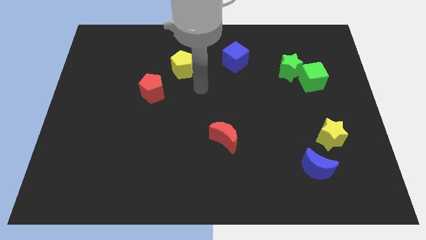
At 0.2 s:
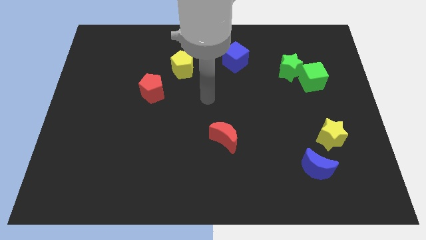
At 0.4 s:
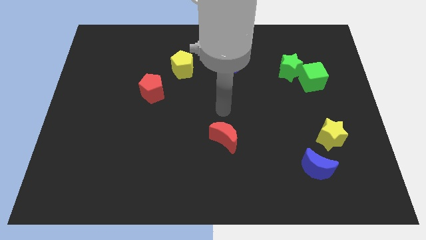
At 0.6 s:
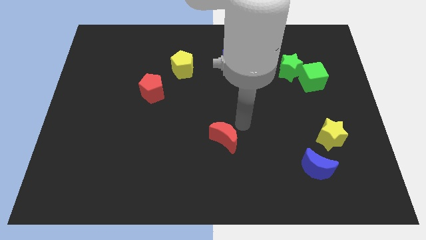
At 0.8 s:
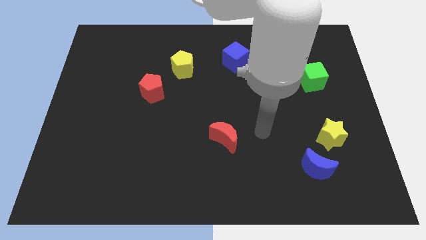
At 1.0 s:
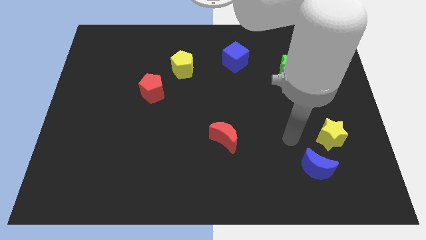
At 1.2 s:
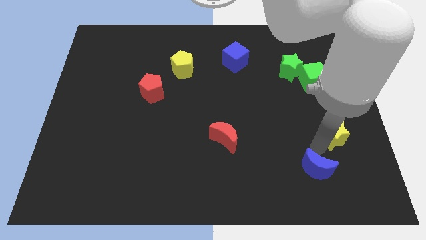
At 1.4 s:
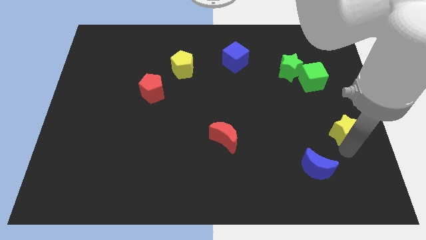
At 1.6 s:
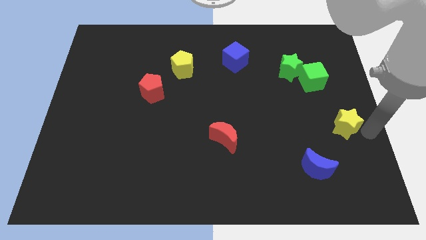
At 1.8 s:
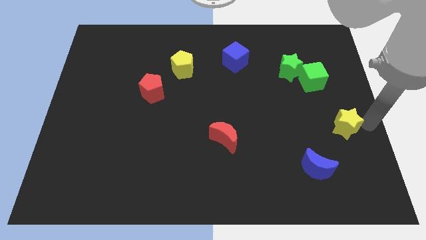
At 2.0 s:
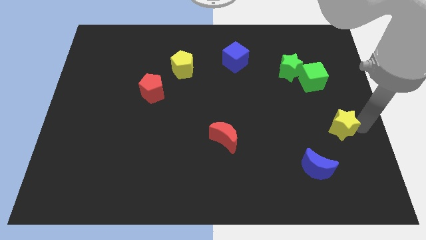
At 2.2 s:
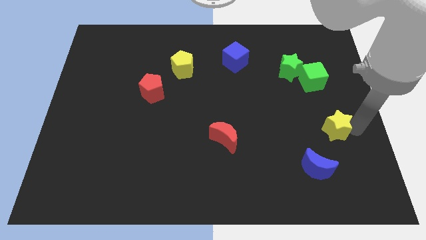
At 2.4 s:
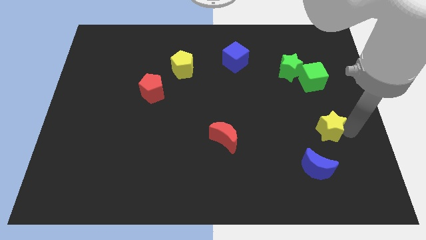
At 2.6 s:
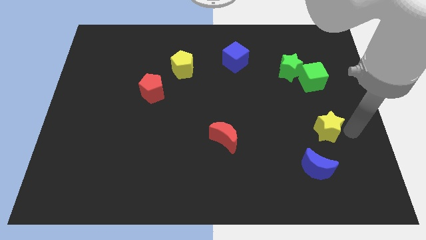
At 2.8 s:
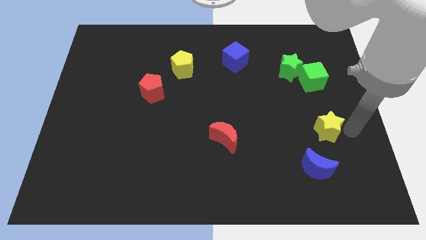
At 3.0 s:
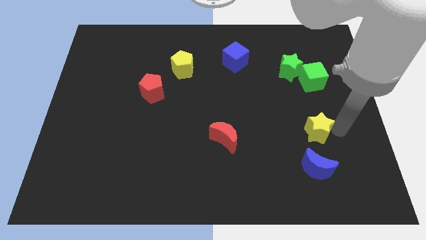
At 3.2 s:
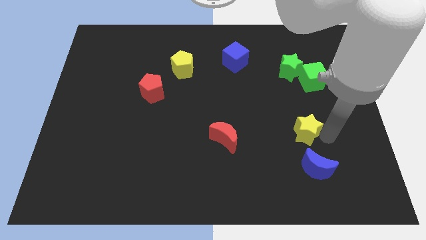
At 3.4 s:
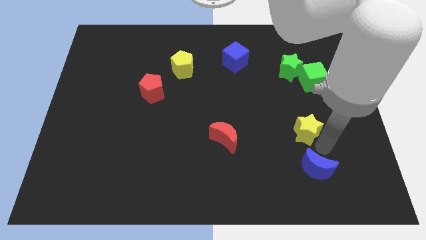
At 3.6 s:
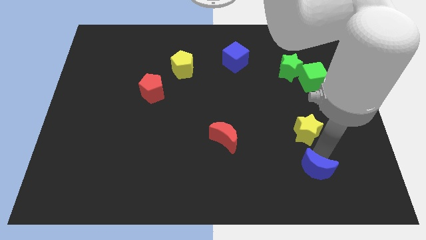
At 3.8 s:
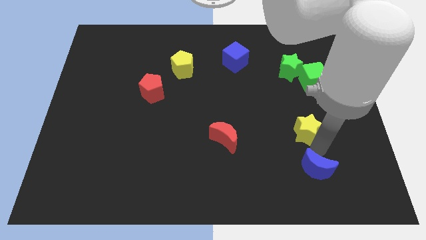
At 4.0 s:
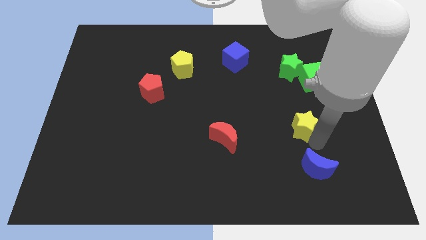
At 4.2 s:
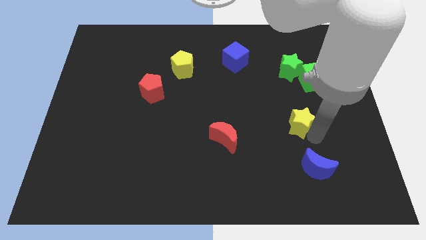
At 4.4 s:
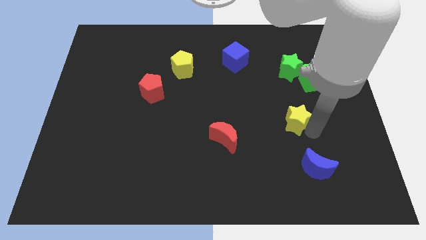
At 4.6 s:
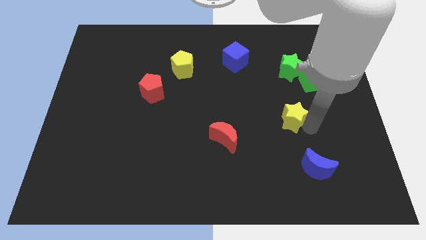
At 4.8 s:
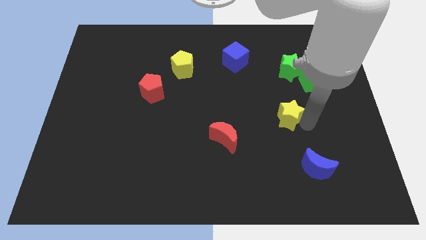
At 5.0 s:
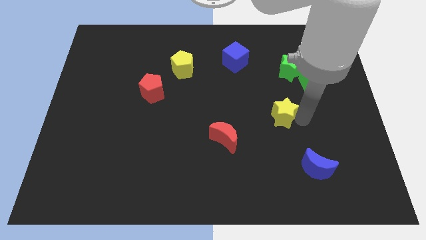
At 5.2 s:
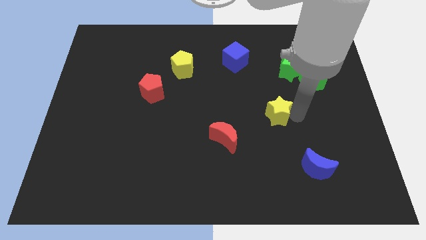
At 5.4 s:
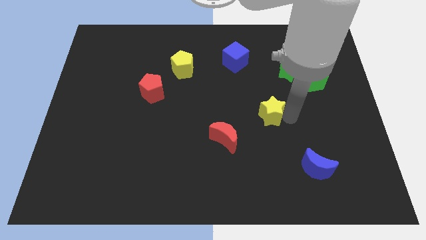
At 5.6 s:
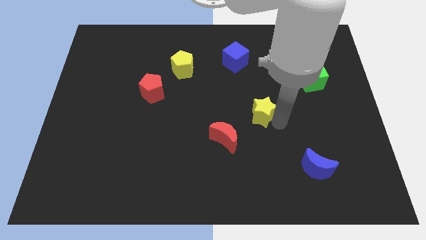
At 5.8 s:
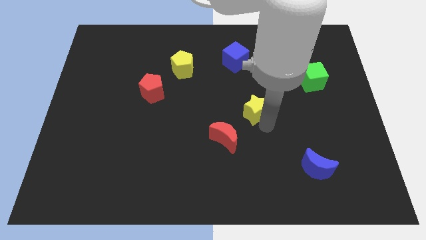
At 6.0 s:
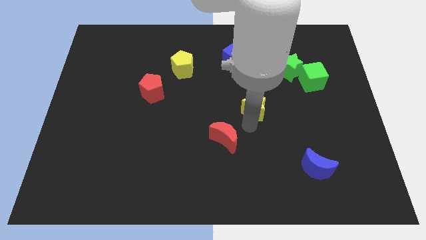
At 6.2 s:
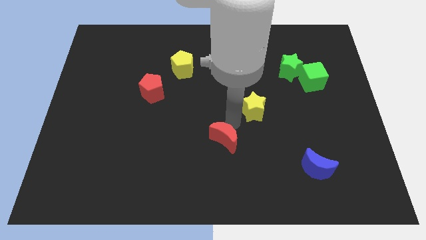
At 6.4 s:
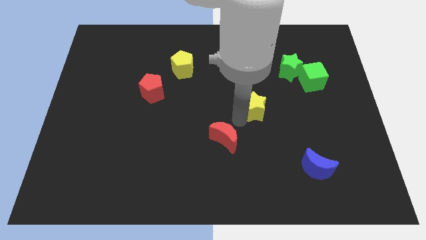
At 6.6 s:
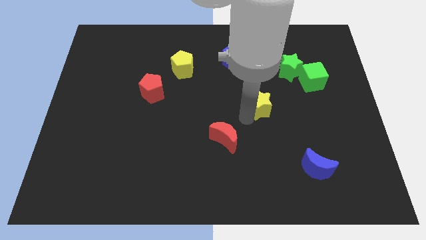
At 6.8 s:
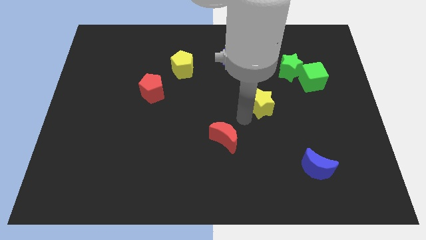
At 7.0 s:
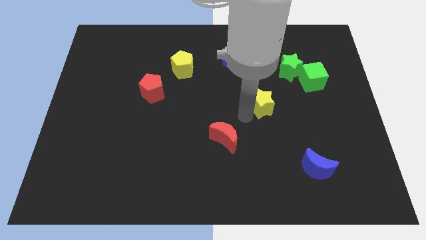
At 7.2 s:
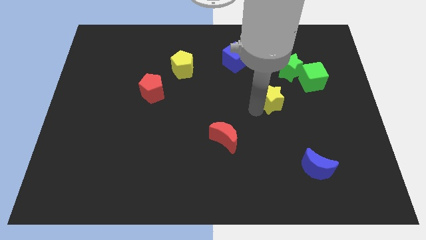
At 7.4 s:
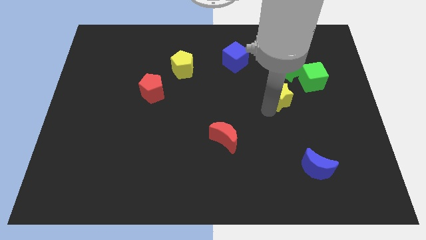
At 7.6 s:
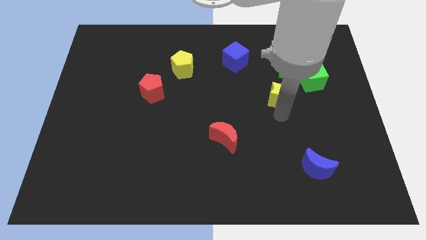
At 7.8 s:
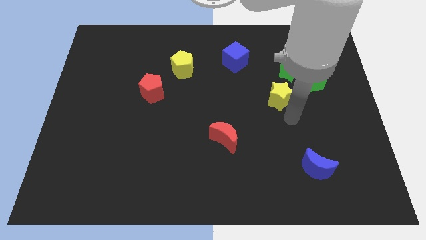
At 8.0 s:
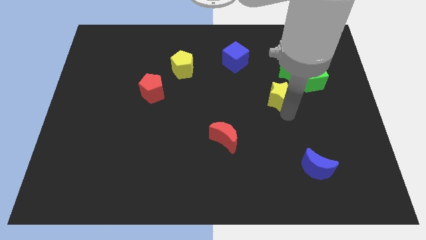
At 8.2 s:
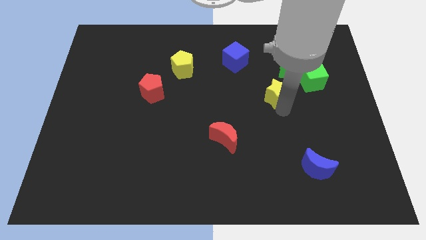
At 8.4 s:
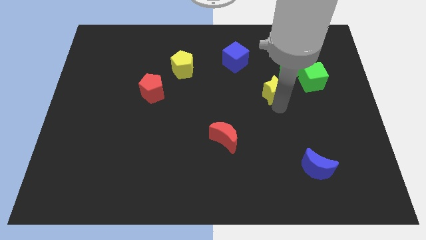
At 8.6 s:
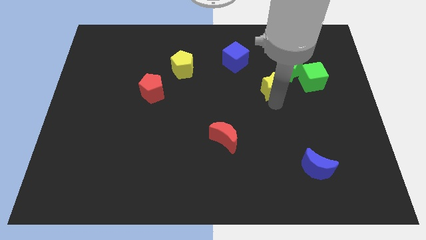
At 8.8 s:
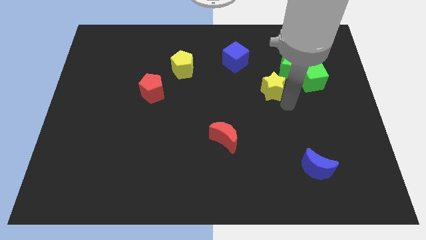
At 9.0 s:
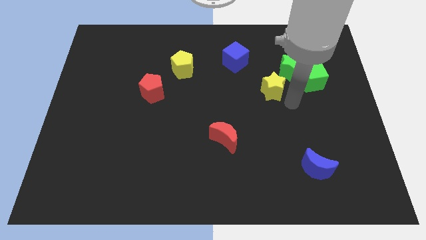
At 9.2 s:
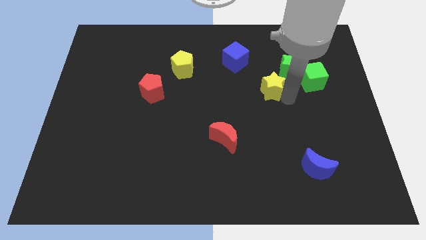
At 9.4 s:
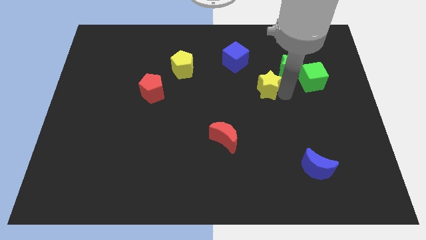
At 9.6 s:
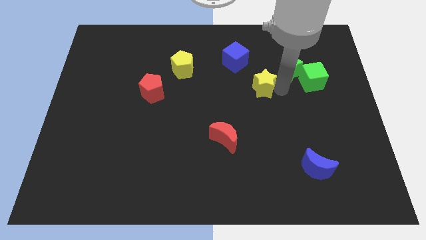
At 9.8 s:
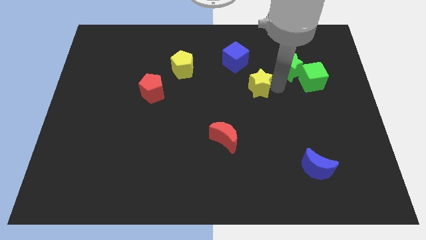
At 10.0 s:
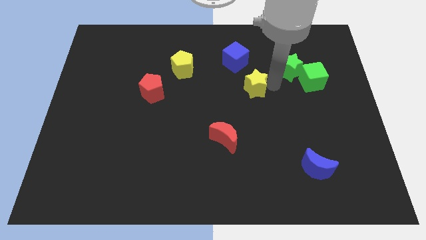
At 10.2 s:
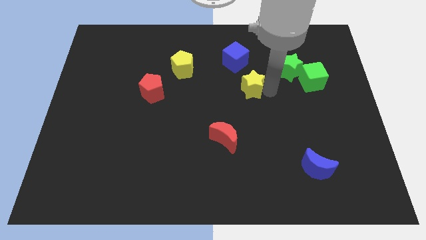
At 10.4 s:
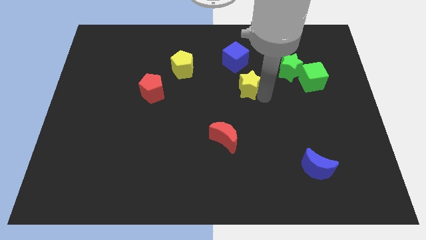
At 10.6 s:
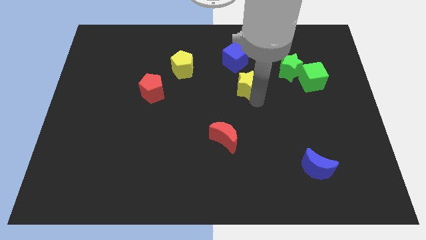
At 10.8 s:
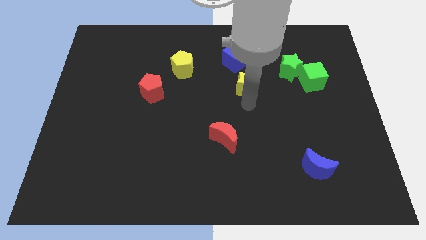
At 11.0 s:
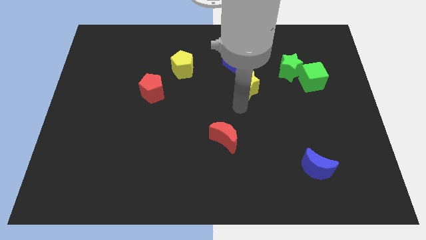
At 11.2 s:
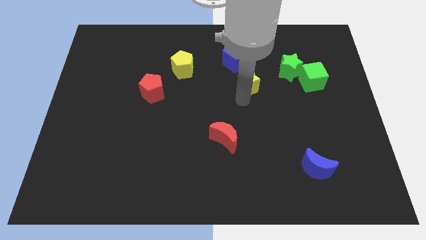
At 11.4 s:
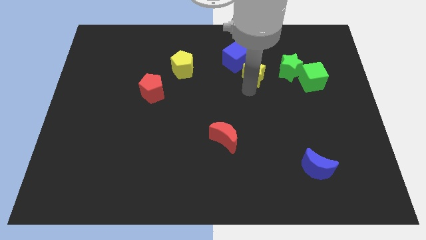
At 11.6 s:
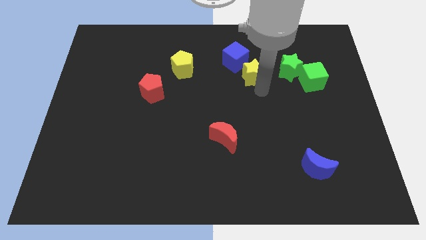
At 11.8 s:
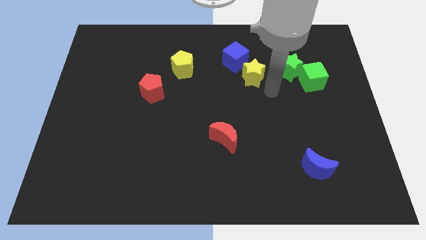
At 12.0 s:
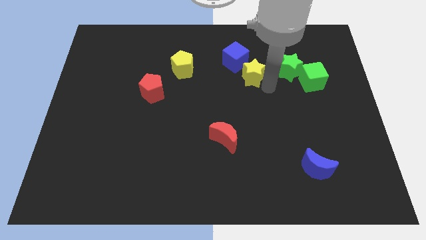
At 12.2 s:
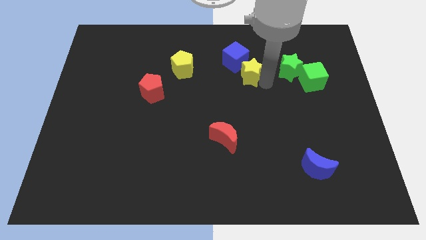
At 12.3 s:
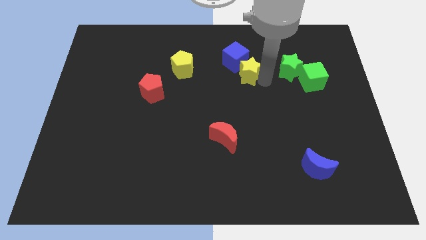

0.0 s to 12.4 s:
slide the yellow star to the blue cube

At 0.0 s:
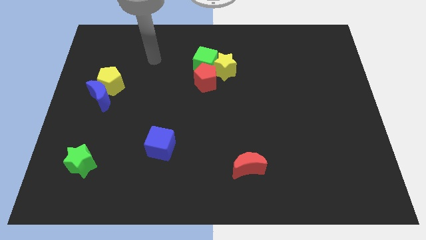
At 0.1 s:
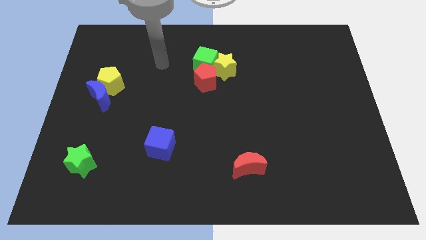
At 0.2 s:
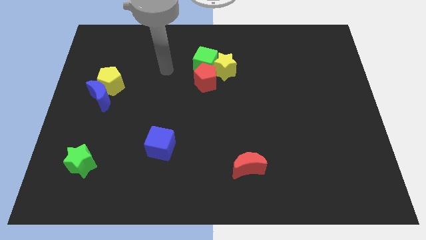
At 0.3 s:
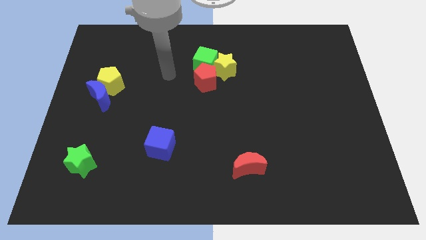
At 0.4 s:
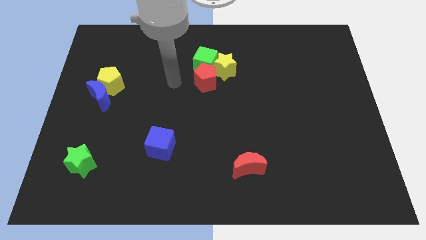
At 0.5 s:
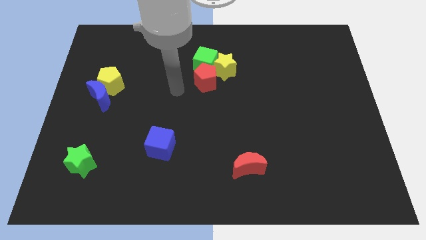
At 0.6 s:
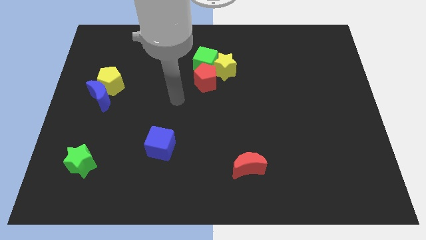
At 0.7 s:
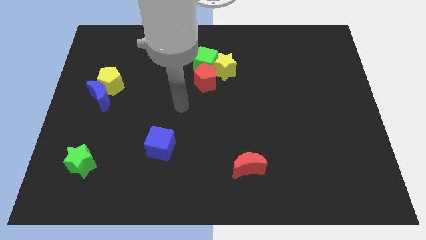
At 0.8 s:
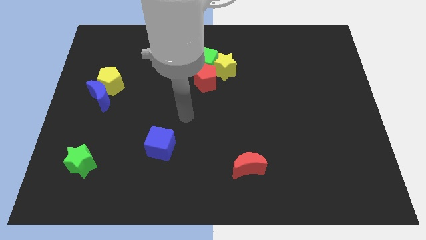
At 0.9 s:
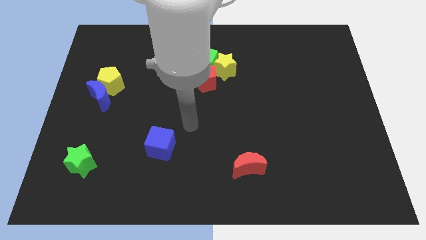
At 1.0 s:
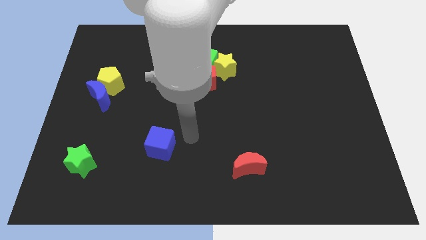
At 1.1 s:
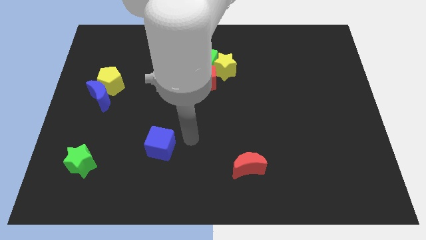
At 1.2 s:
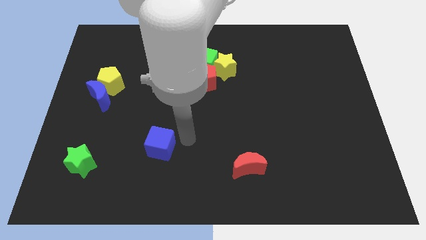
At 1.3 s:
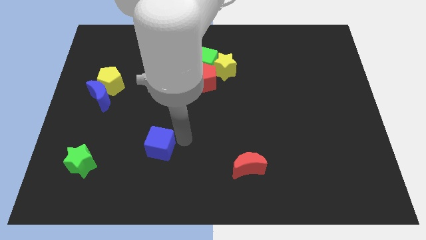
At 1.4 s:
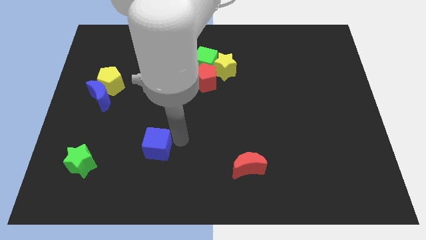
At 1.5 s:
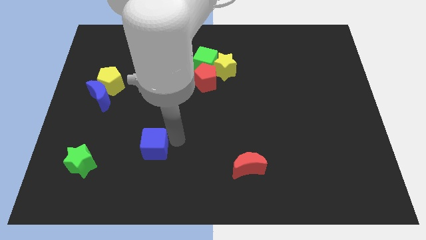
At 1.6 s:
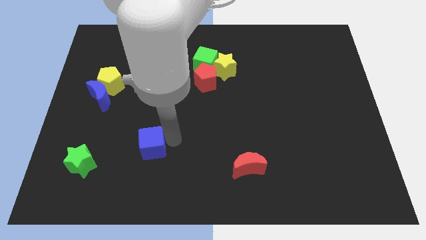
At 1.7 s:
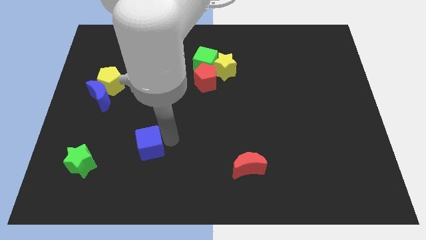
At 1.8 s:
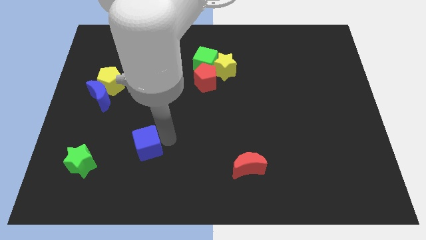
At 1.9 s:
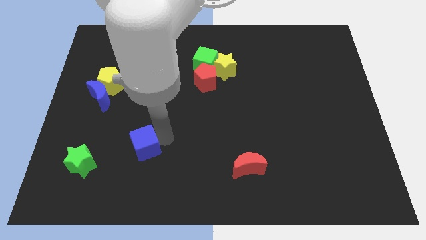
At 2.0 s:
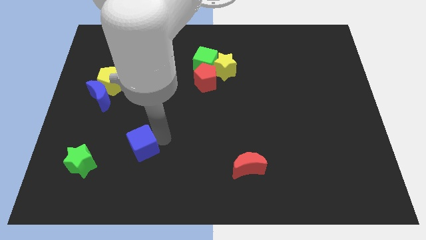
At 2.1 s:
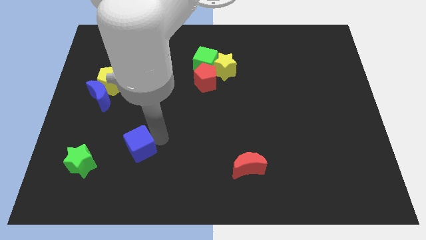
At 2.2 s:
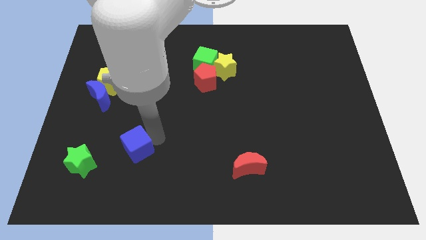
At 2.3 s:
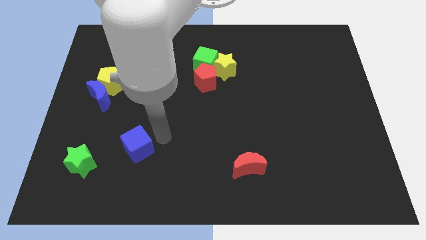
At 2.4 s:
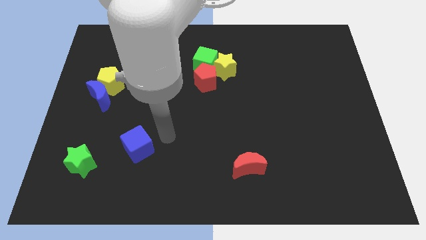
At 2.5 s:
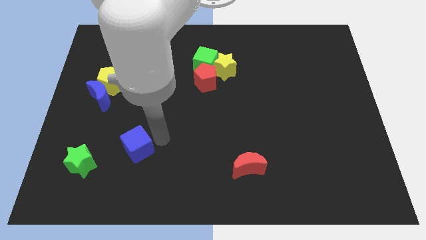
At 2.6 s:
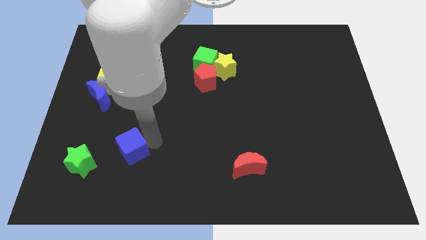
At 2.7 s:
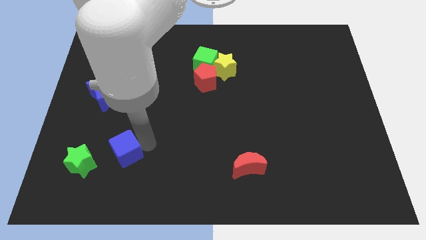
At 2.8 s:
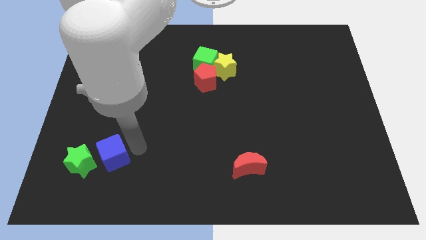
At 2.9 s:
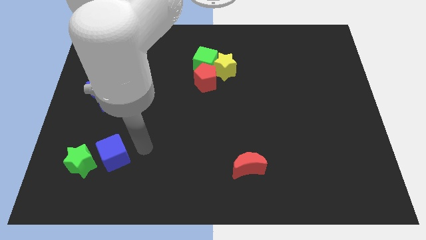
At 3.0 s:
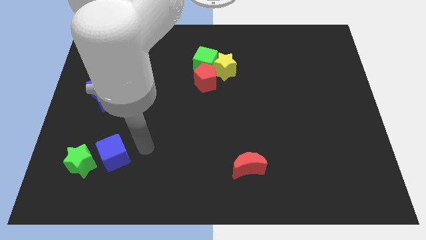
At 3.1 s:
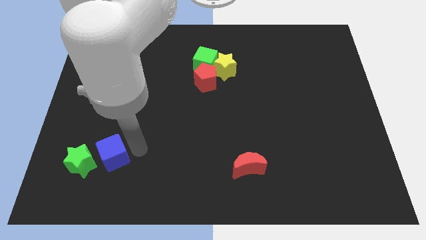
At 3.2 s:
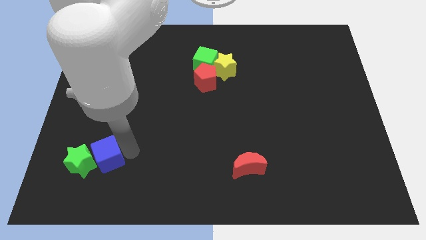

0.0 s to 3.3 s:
slide the blue cube towards the green star
